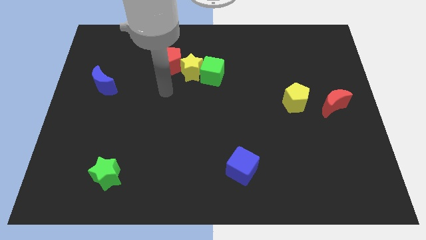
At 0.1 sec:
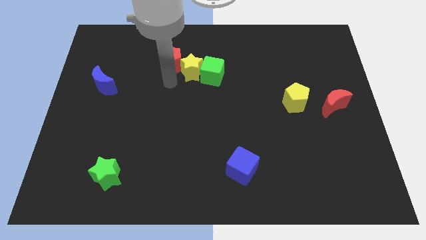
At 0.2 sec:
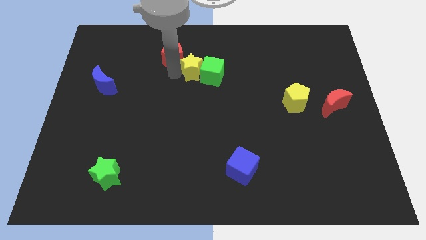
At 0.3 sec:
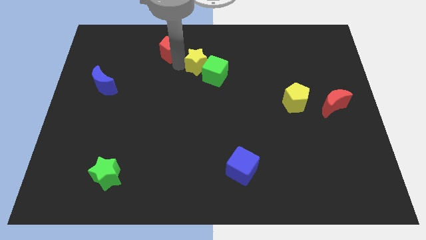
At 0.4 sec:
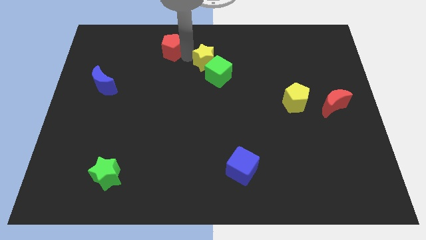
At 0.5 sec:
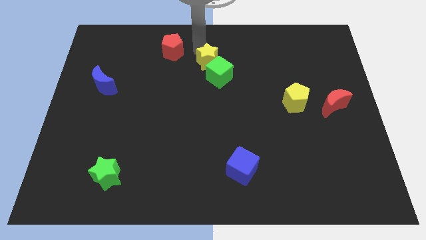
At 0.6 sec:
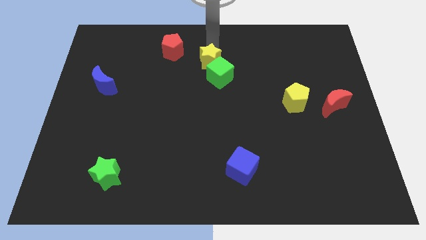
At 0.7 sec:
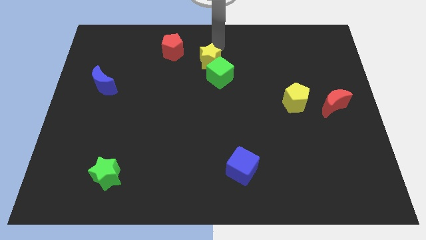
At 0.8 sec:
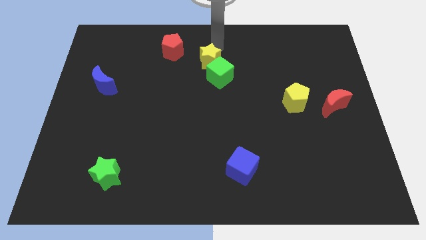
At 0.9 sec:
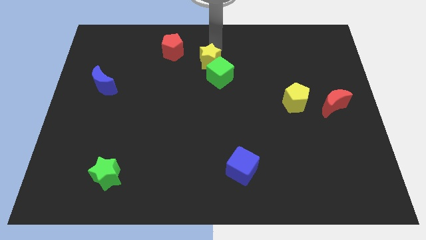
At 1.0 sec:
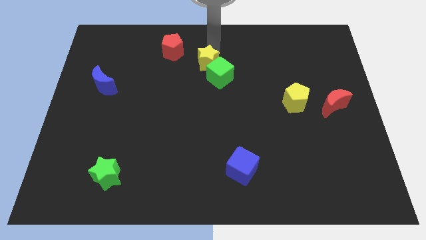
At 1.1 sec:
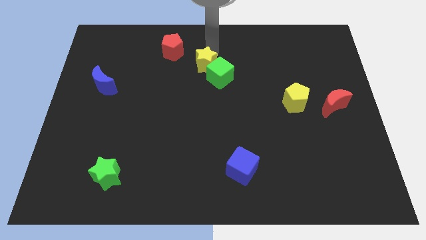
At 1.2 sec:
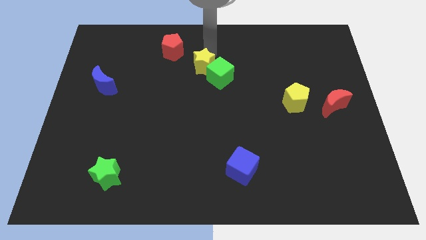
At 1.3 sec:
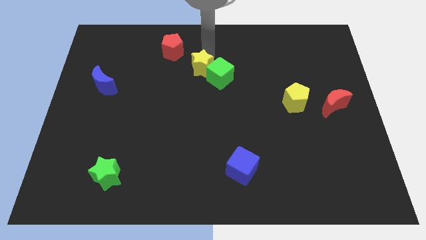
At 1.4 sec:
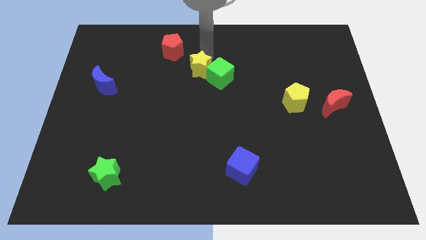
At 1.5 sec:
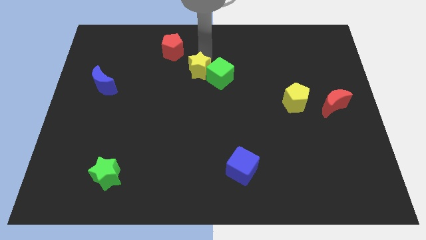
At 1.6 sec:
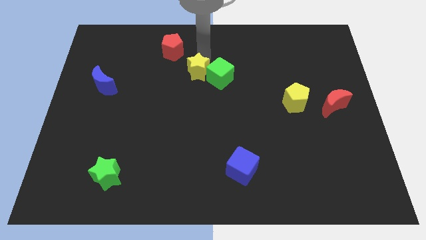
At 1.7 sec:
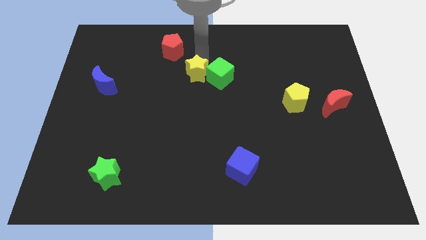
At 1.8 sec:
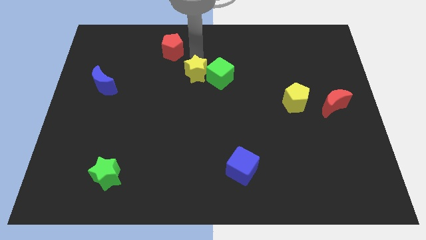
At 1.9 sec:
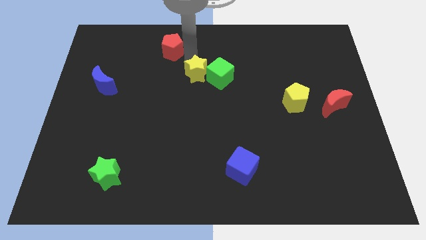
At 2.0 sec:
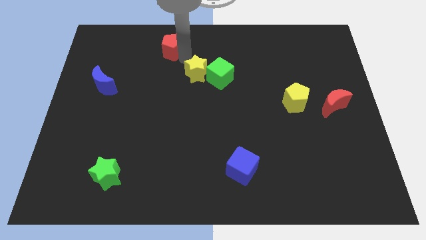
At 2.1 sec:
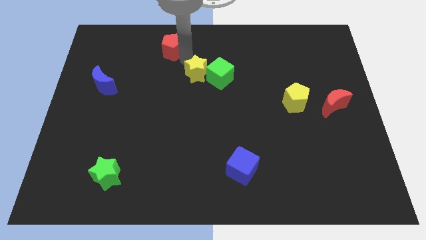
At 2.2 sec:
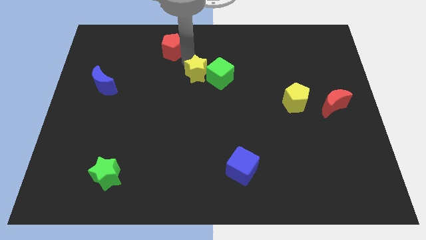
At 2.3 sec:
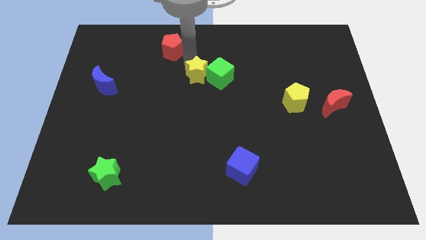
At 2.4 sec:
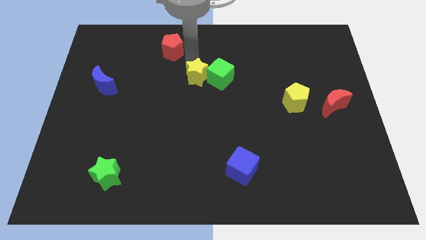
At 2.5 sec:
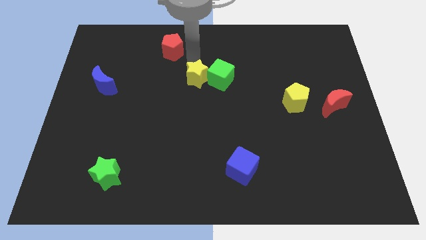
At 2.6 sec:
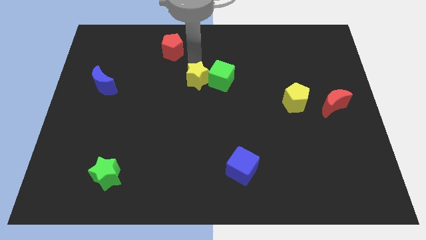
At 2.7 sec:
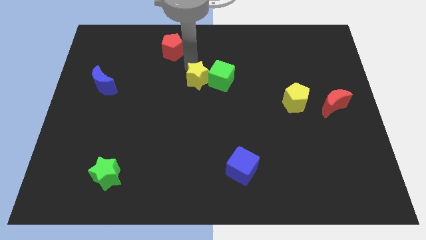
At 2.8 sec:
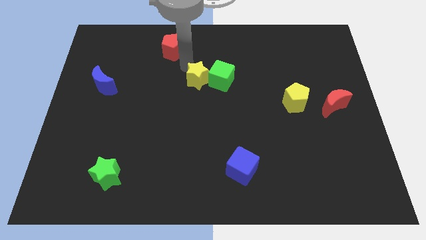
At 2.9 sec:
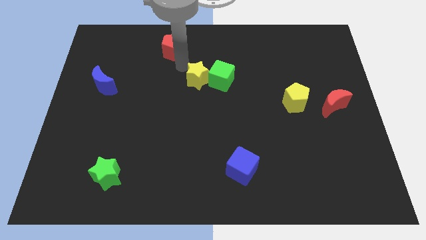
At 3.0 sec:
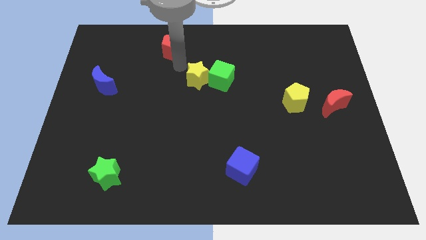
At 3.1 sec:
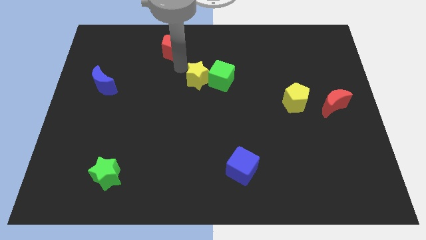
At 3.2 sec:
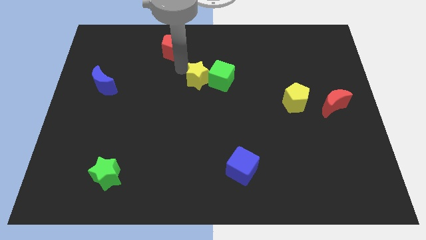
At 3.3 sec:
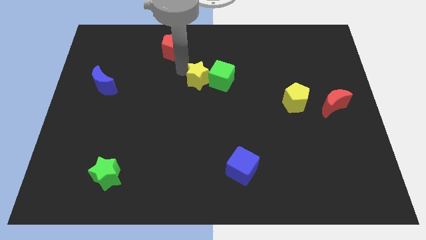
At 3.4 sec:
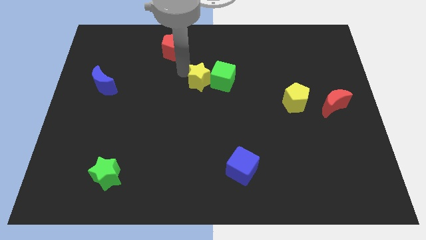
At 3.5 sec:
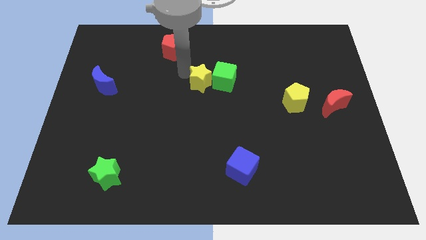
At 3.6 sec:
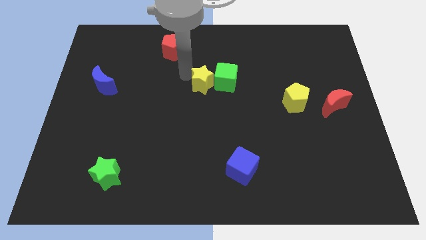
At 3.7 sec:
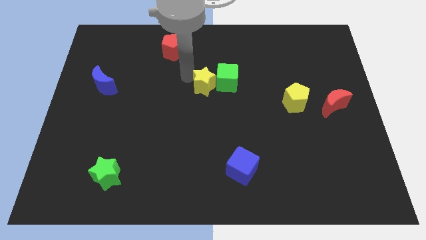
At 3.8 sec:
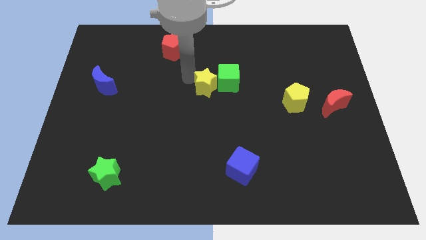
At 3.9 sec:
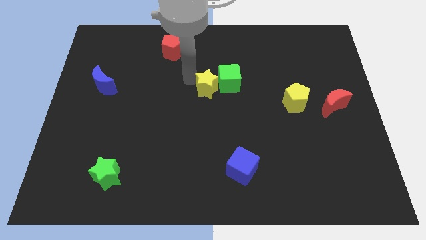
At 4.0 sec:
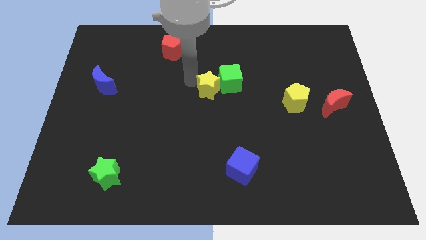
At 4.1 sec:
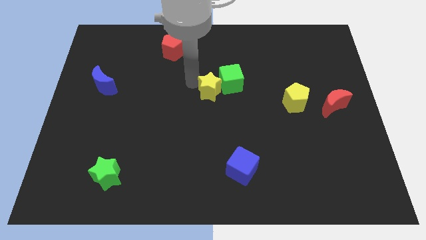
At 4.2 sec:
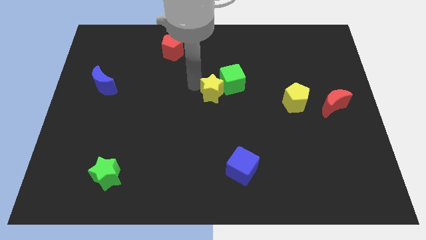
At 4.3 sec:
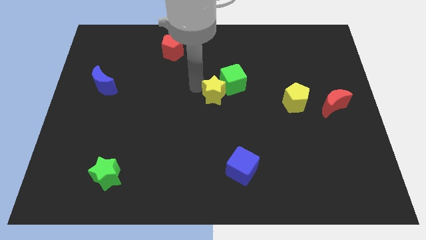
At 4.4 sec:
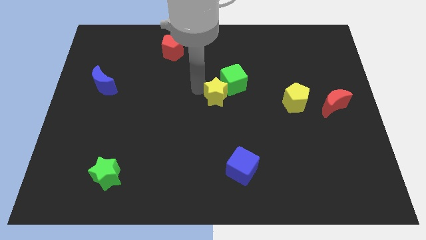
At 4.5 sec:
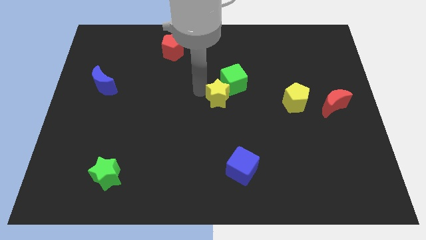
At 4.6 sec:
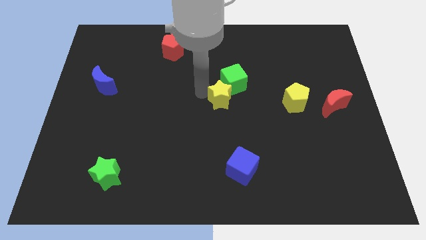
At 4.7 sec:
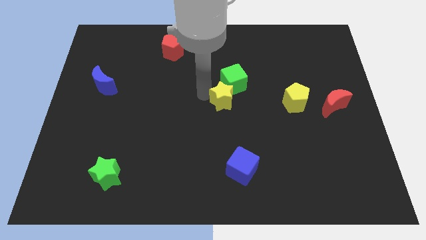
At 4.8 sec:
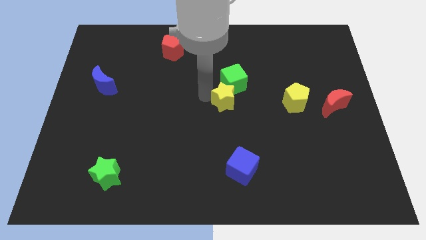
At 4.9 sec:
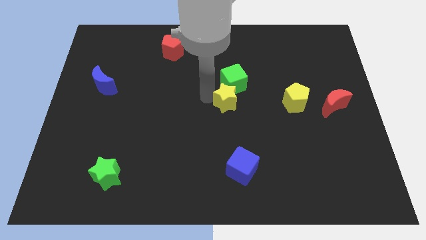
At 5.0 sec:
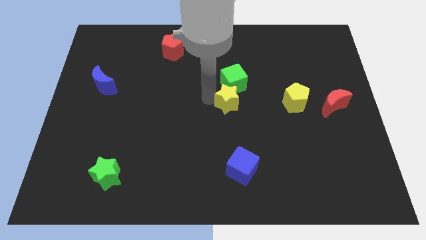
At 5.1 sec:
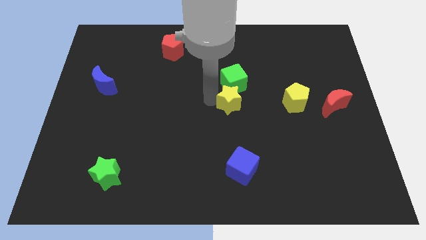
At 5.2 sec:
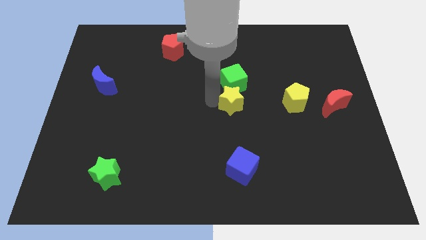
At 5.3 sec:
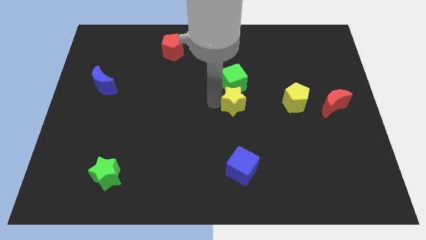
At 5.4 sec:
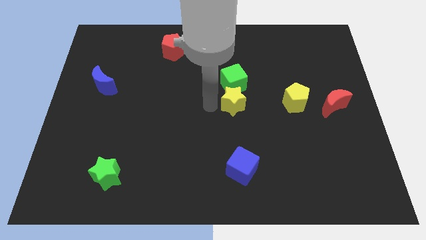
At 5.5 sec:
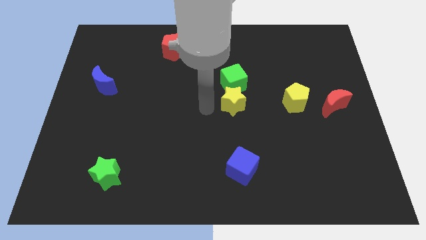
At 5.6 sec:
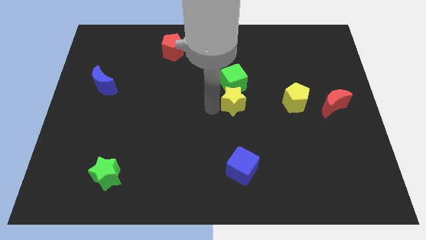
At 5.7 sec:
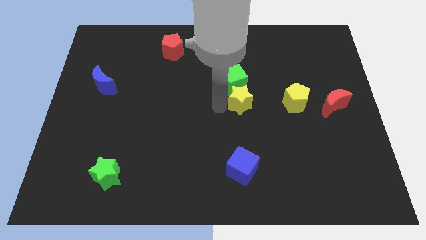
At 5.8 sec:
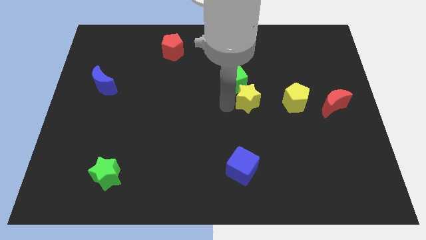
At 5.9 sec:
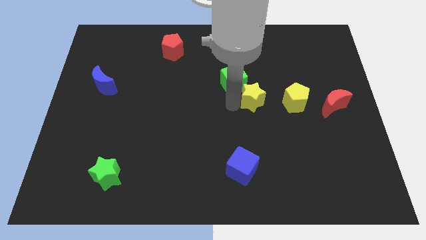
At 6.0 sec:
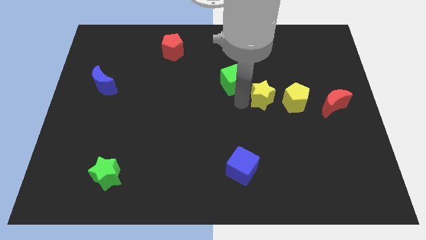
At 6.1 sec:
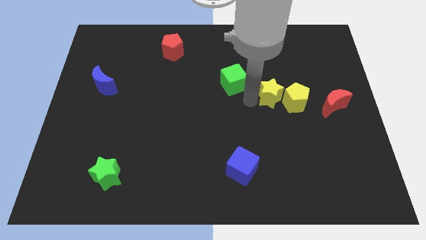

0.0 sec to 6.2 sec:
push the yellow star towards the yellow pentagon

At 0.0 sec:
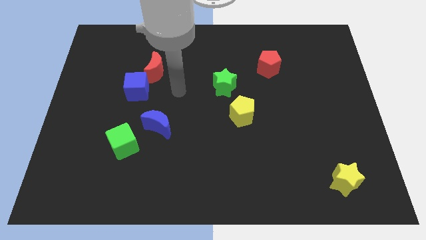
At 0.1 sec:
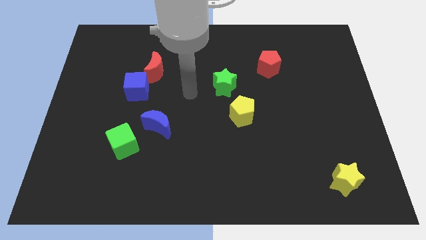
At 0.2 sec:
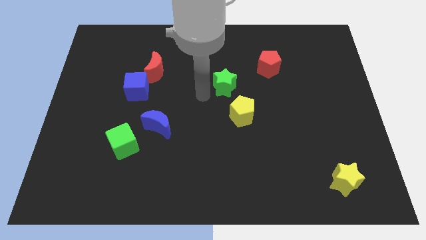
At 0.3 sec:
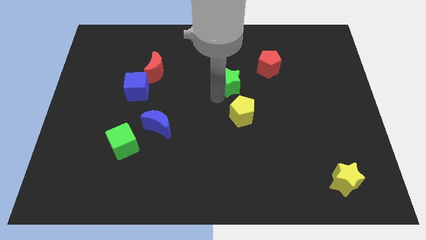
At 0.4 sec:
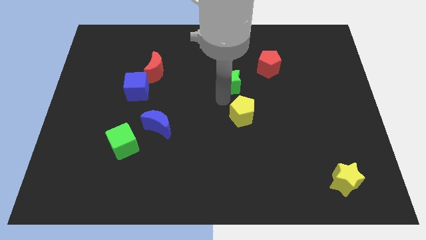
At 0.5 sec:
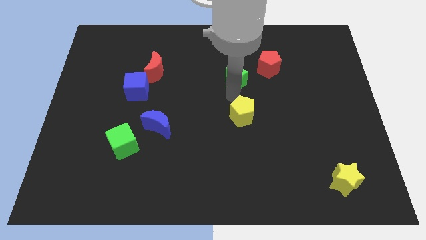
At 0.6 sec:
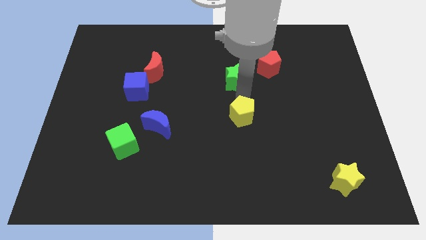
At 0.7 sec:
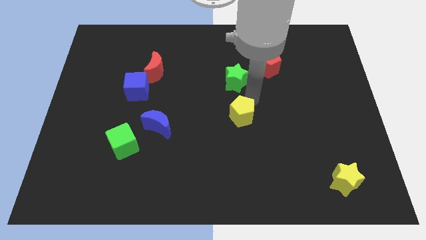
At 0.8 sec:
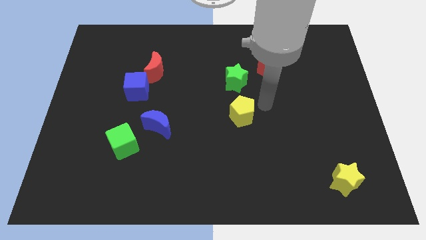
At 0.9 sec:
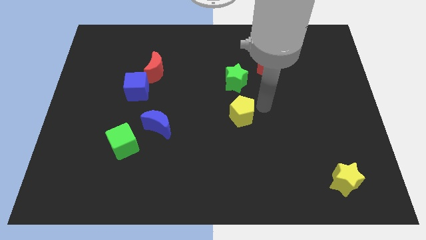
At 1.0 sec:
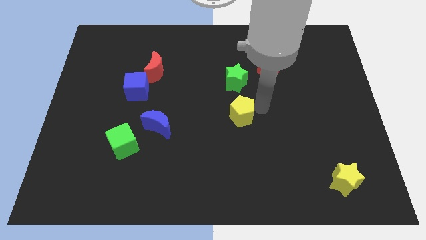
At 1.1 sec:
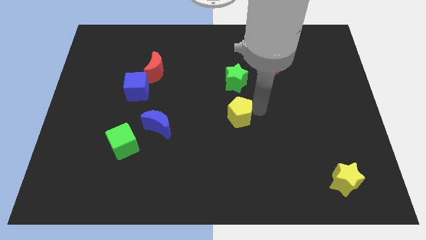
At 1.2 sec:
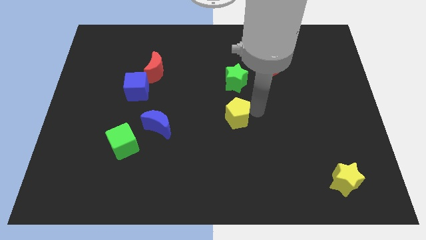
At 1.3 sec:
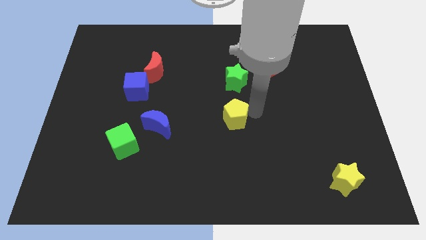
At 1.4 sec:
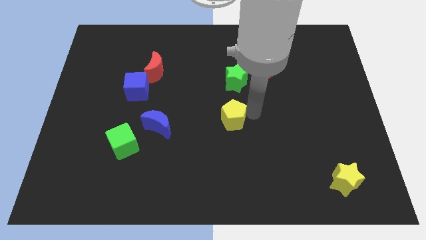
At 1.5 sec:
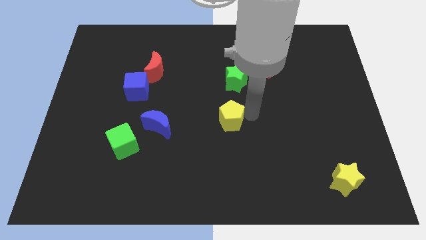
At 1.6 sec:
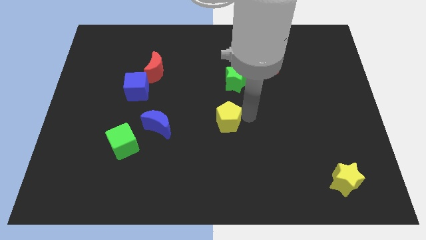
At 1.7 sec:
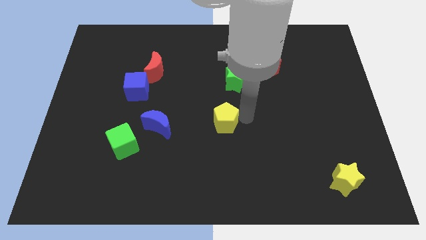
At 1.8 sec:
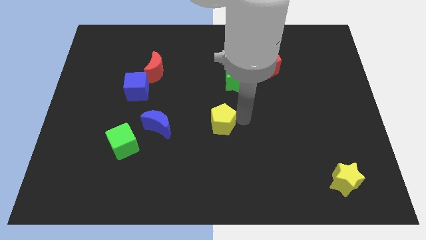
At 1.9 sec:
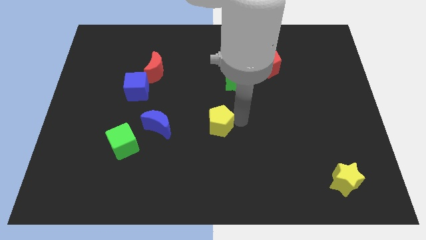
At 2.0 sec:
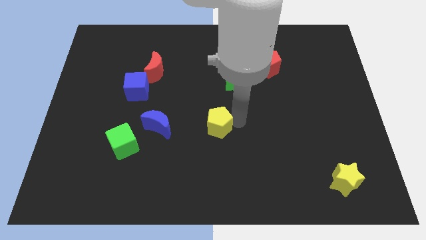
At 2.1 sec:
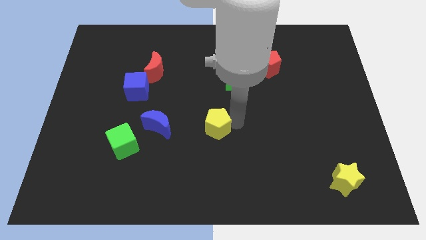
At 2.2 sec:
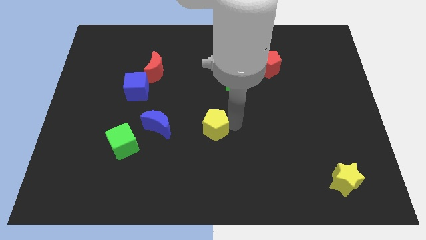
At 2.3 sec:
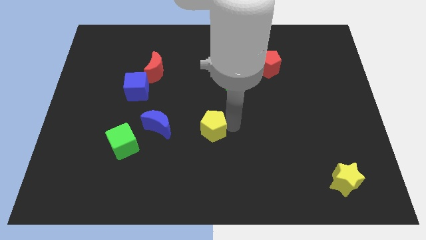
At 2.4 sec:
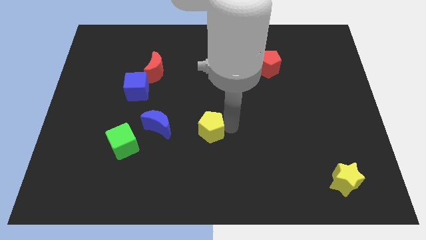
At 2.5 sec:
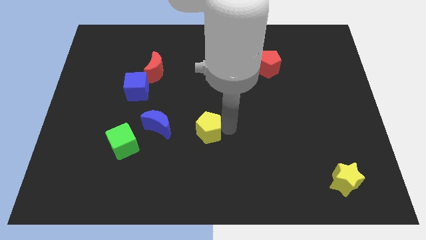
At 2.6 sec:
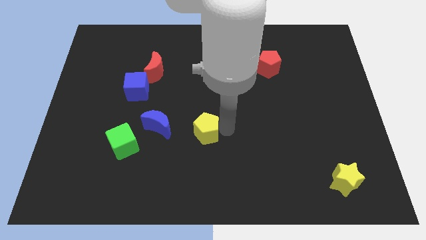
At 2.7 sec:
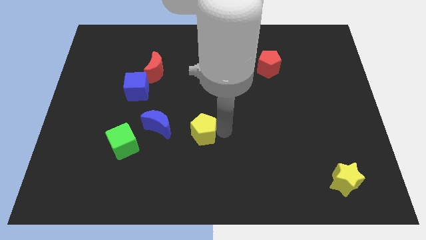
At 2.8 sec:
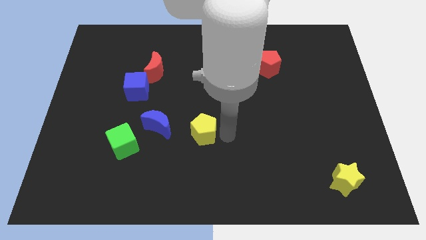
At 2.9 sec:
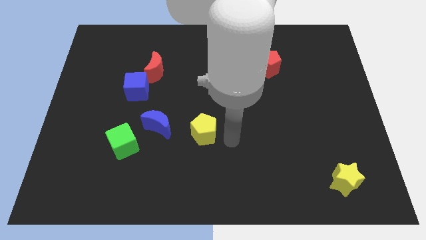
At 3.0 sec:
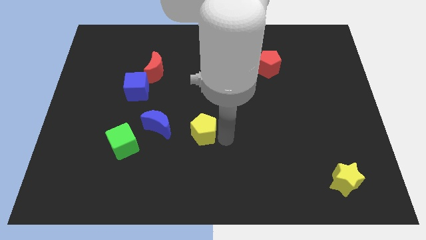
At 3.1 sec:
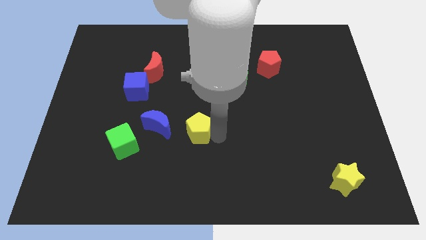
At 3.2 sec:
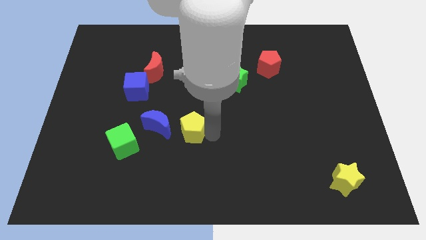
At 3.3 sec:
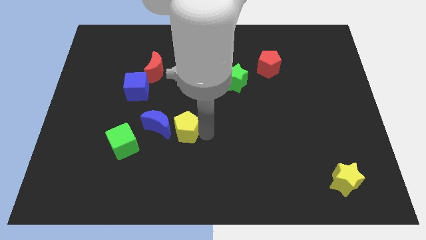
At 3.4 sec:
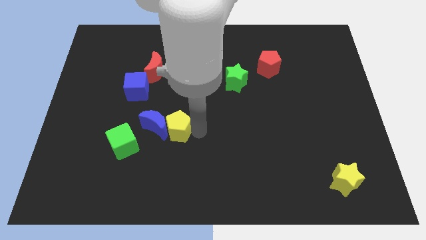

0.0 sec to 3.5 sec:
move the yellow pentagon to the blue moon
